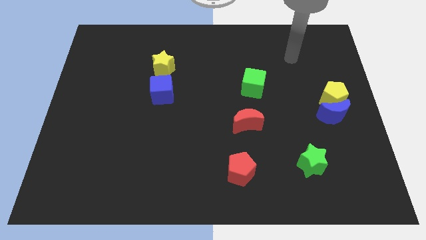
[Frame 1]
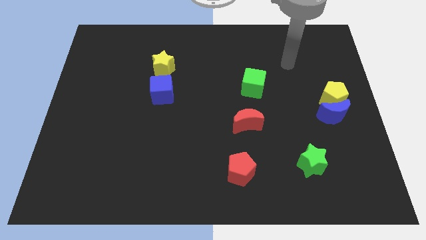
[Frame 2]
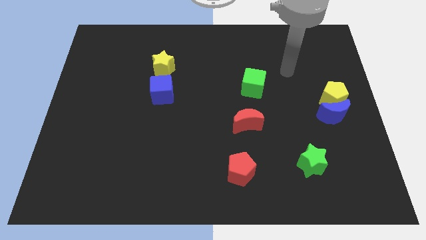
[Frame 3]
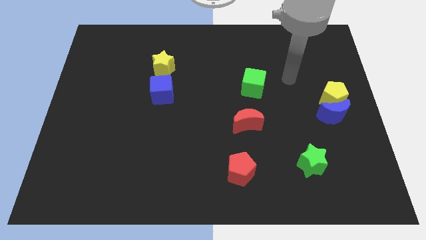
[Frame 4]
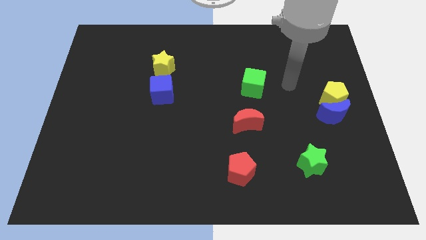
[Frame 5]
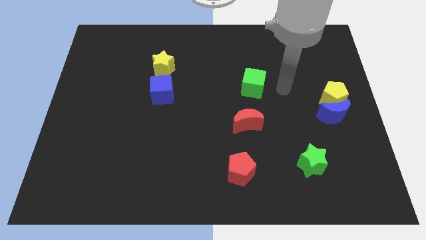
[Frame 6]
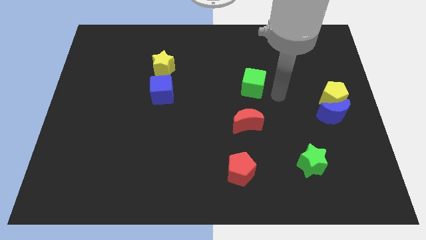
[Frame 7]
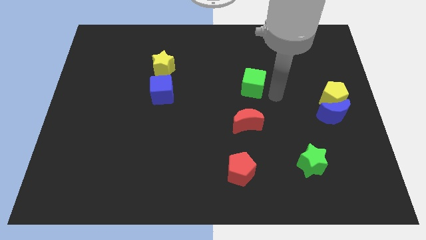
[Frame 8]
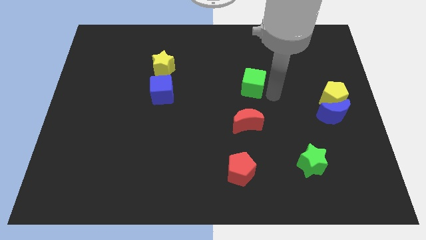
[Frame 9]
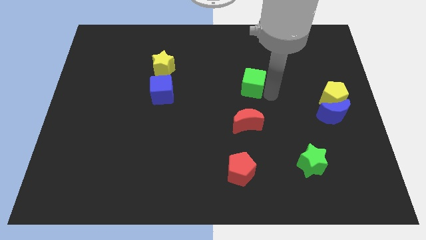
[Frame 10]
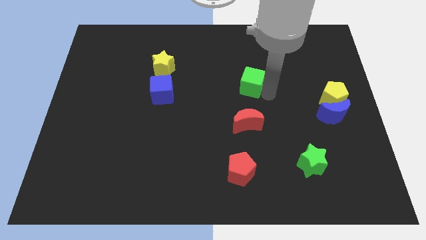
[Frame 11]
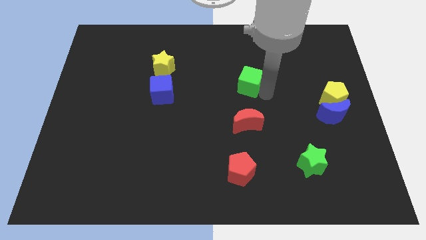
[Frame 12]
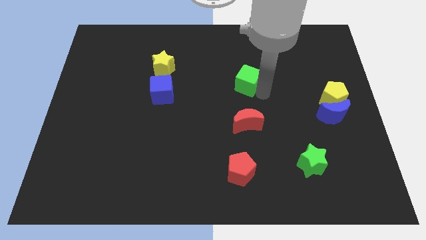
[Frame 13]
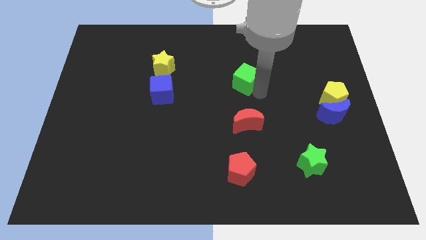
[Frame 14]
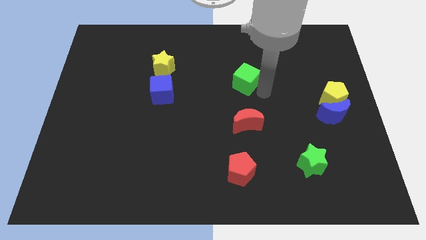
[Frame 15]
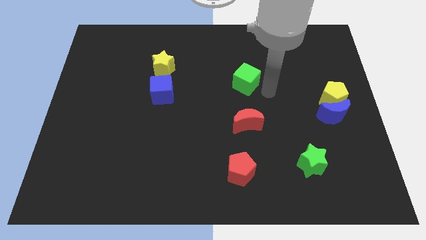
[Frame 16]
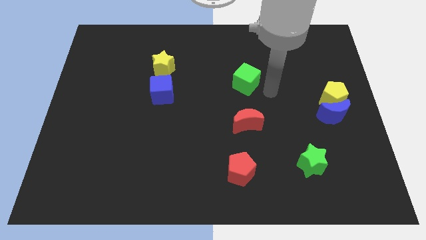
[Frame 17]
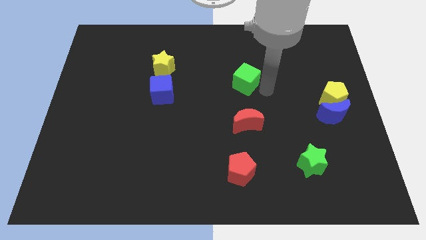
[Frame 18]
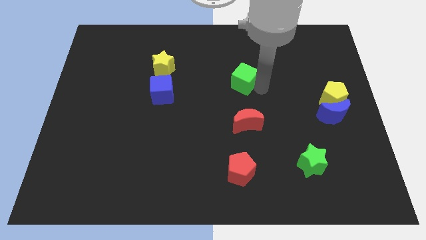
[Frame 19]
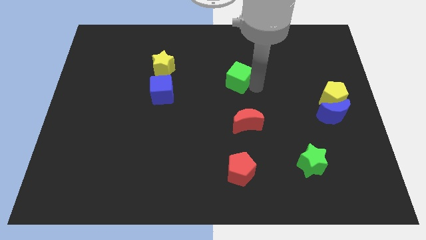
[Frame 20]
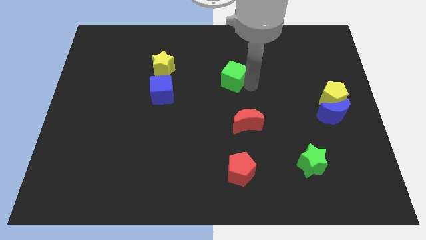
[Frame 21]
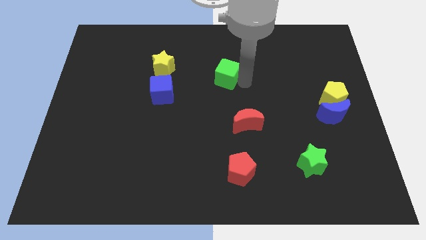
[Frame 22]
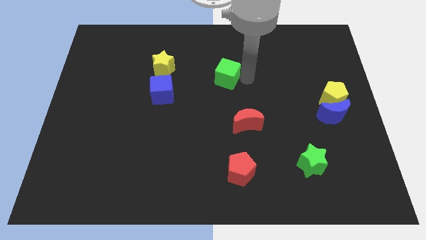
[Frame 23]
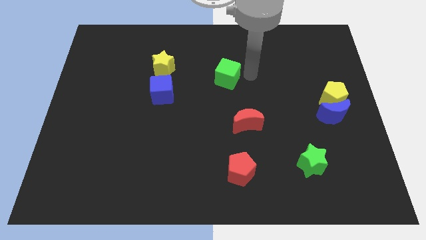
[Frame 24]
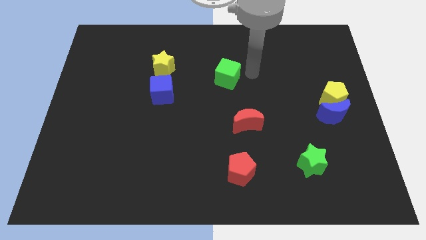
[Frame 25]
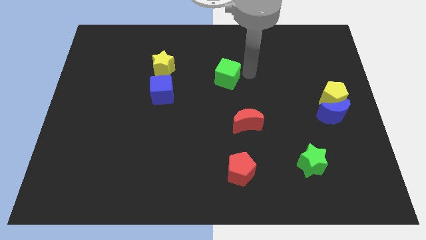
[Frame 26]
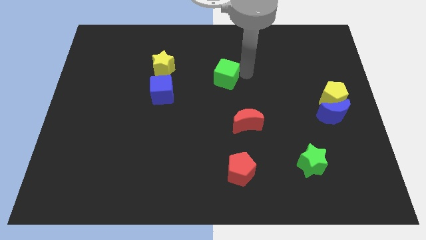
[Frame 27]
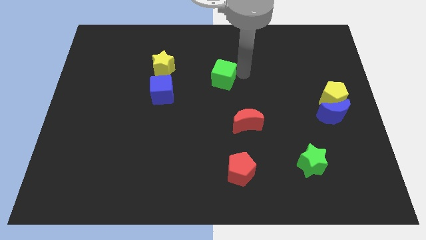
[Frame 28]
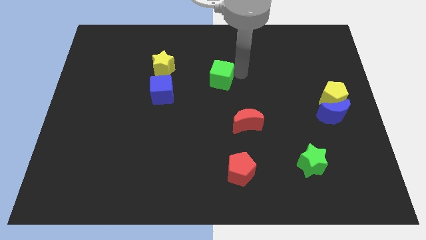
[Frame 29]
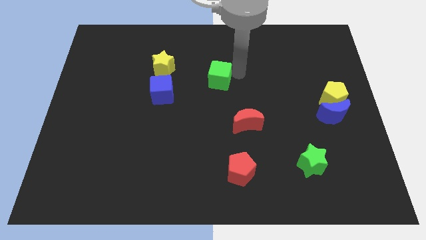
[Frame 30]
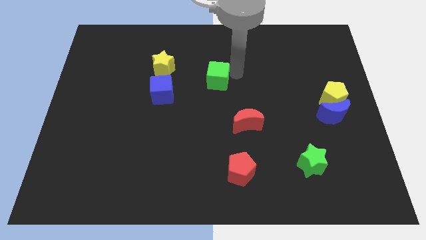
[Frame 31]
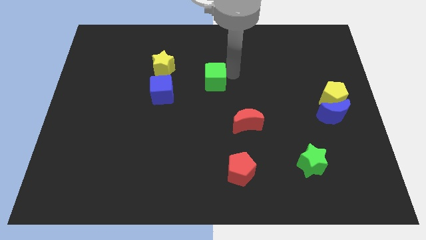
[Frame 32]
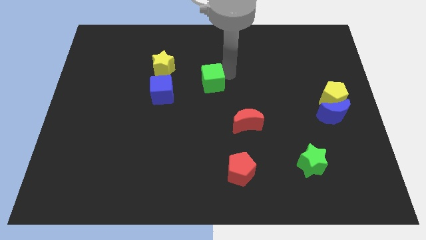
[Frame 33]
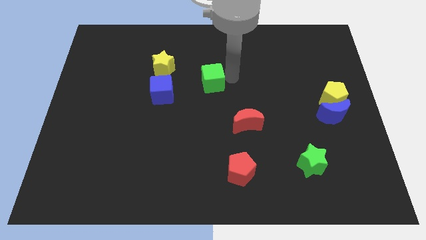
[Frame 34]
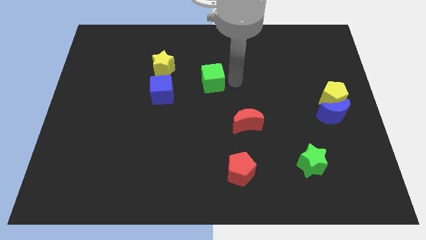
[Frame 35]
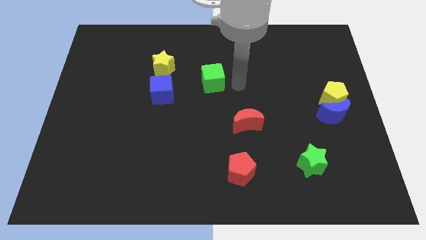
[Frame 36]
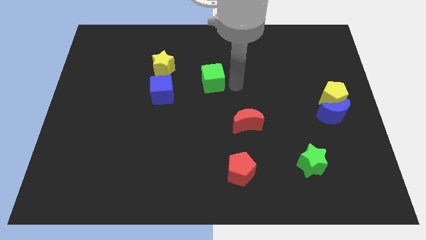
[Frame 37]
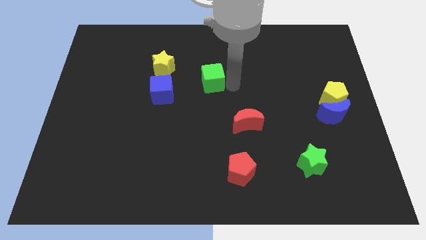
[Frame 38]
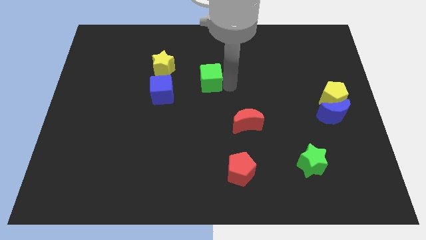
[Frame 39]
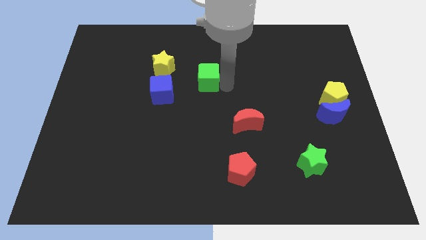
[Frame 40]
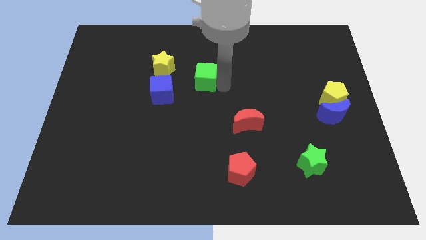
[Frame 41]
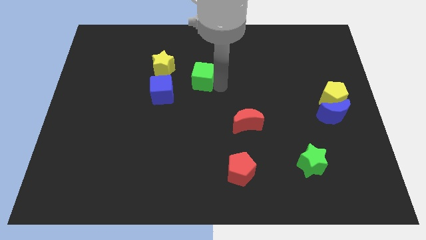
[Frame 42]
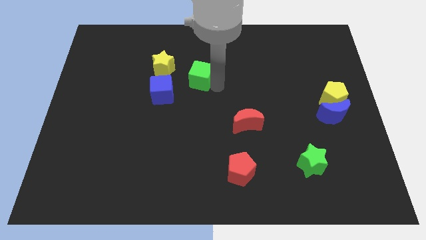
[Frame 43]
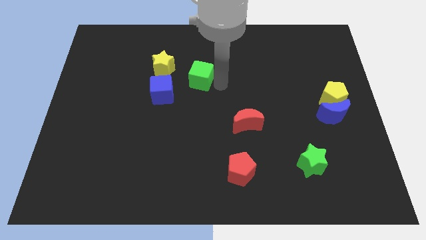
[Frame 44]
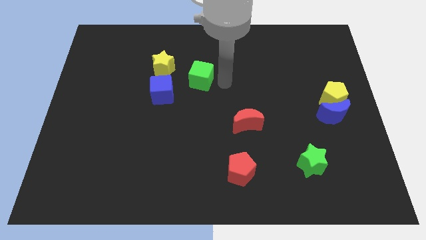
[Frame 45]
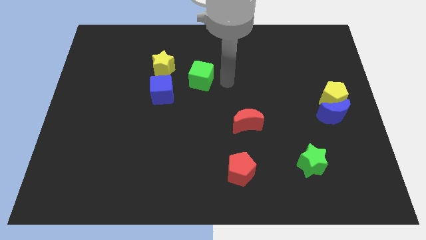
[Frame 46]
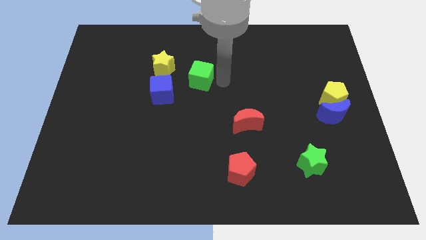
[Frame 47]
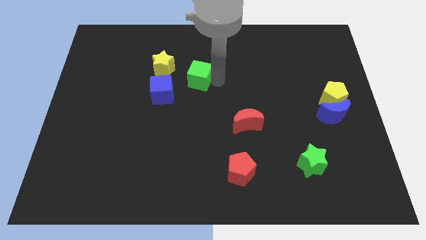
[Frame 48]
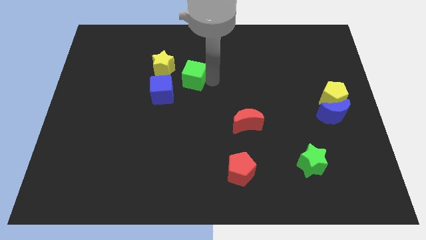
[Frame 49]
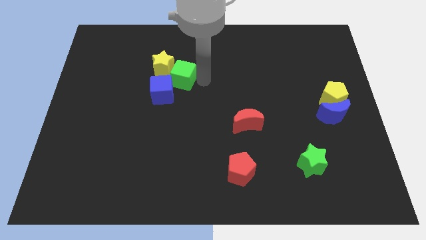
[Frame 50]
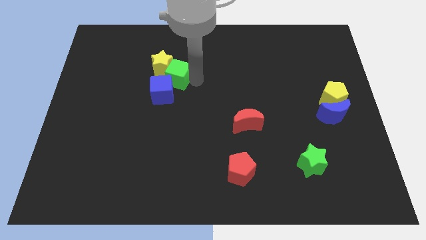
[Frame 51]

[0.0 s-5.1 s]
push the green cube towards the yellow star

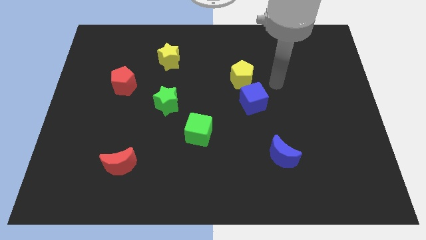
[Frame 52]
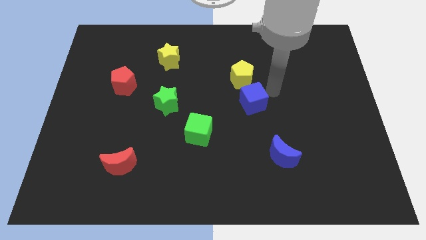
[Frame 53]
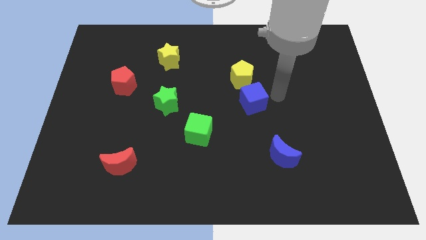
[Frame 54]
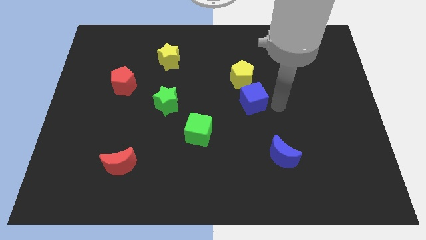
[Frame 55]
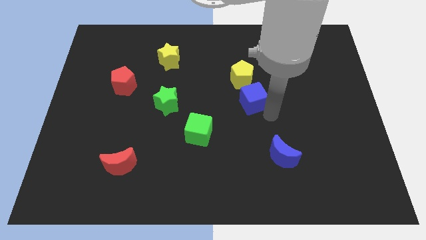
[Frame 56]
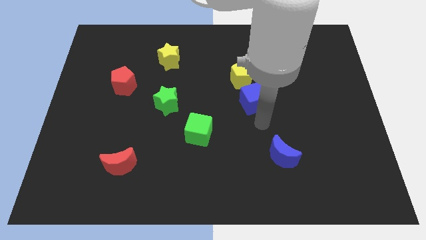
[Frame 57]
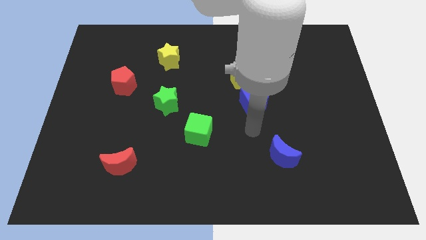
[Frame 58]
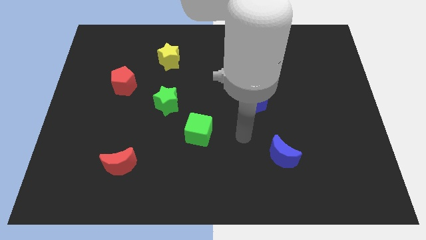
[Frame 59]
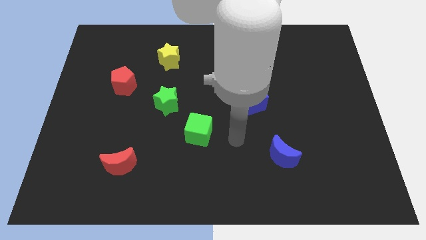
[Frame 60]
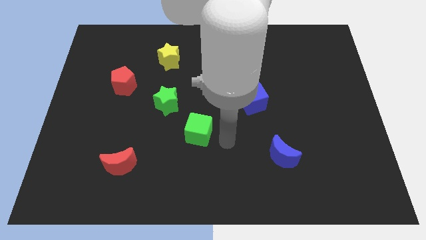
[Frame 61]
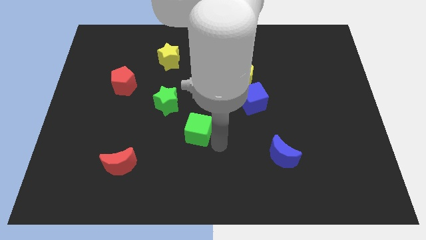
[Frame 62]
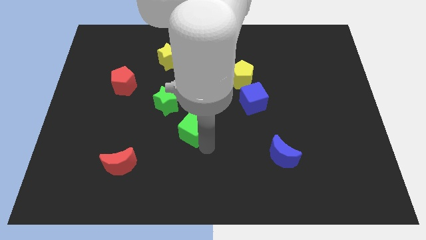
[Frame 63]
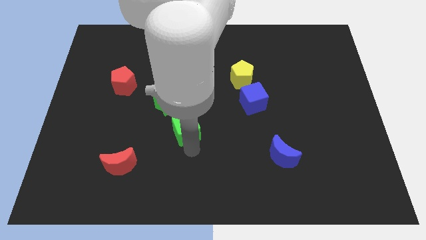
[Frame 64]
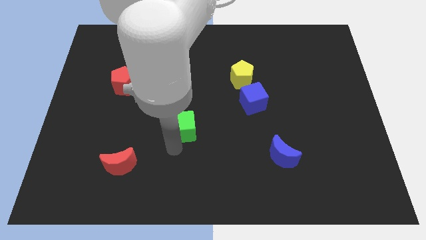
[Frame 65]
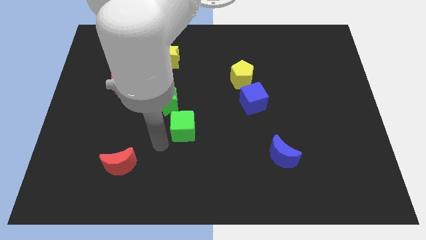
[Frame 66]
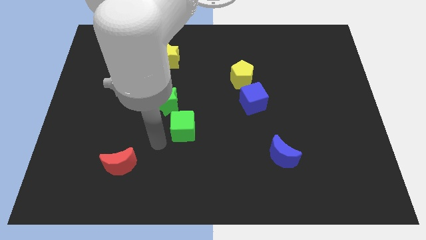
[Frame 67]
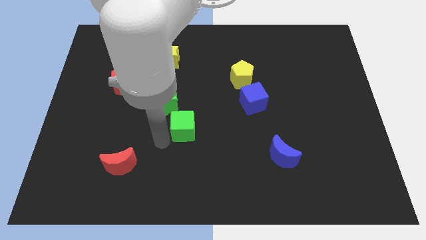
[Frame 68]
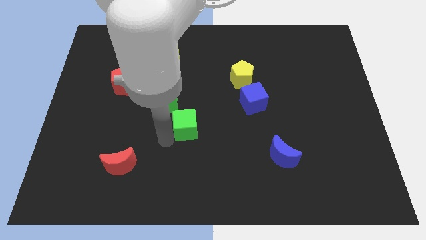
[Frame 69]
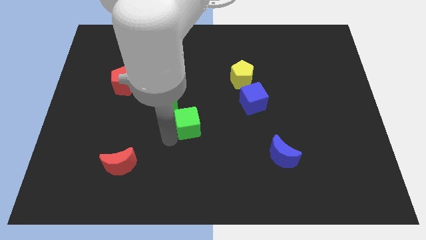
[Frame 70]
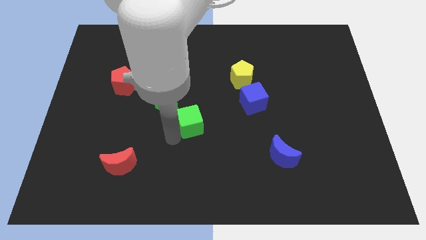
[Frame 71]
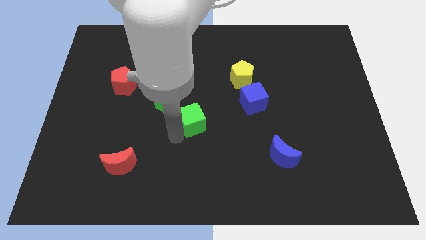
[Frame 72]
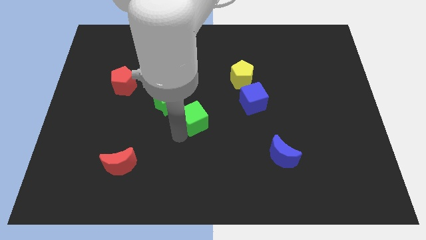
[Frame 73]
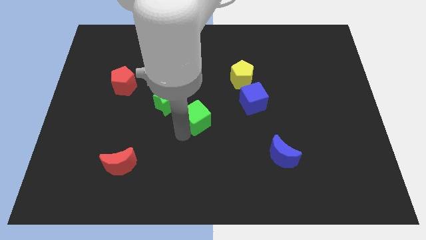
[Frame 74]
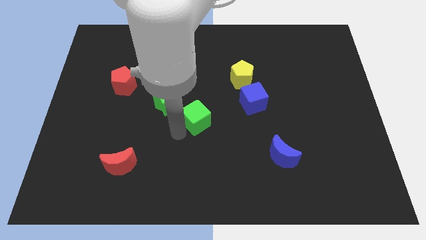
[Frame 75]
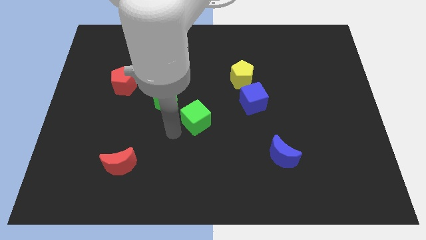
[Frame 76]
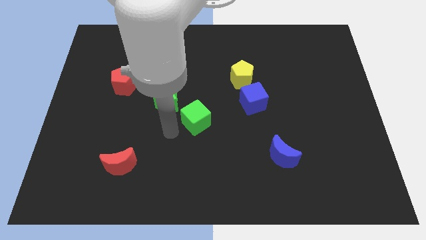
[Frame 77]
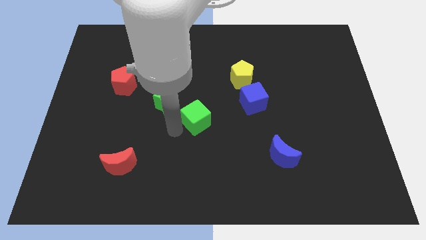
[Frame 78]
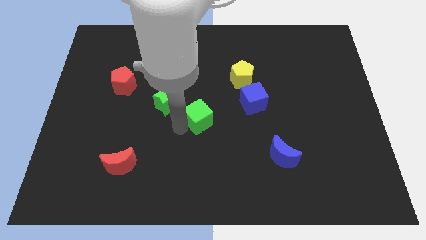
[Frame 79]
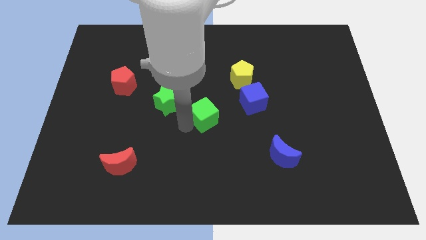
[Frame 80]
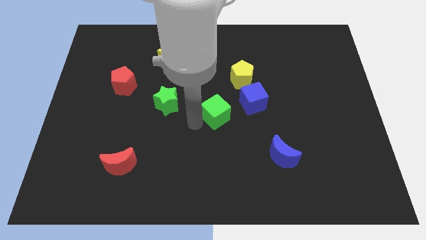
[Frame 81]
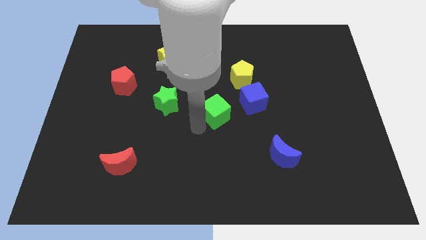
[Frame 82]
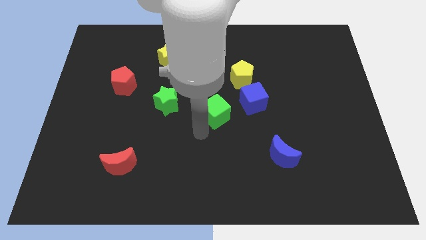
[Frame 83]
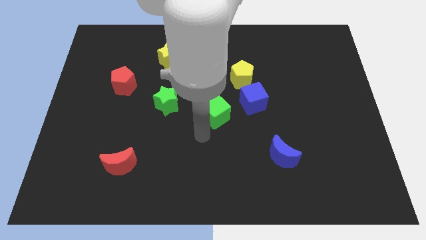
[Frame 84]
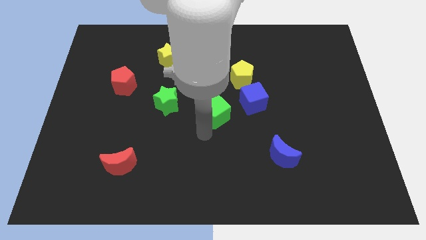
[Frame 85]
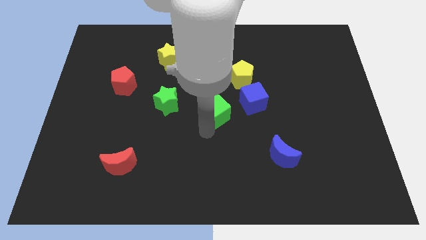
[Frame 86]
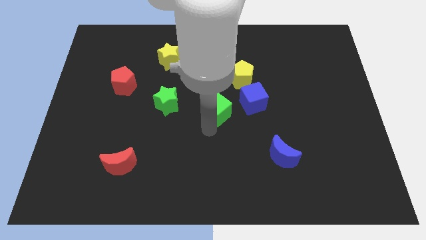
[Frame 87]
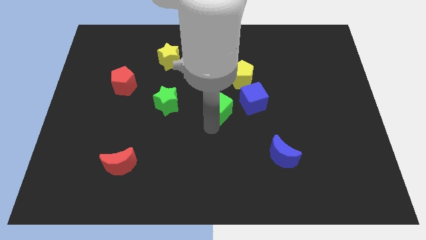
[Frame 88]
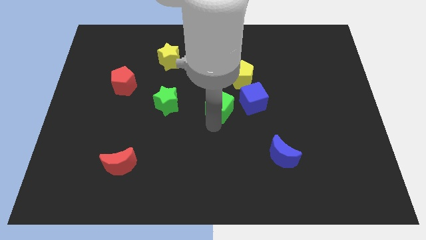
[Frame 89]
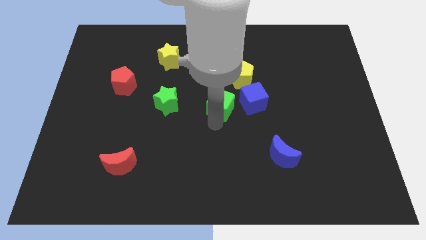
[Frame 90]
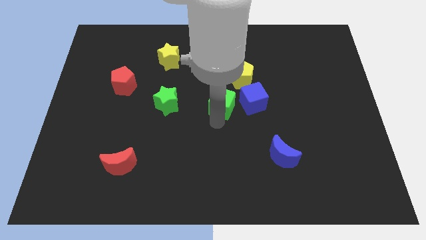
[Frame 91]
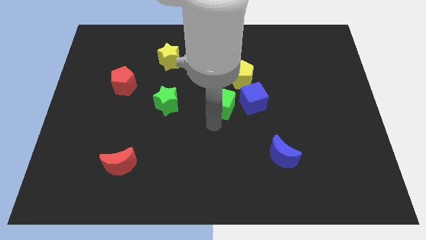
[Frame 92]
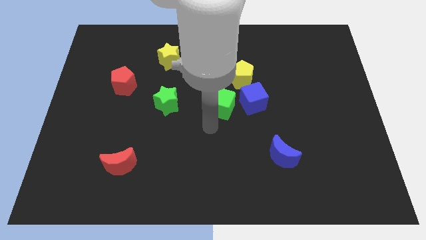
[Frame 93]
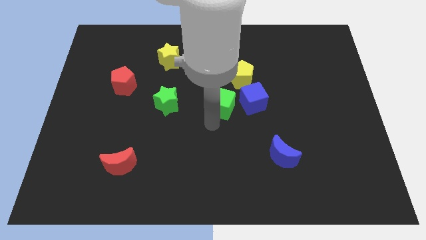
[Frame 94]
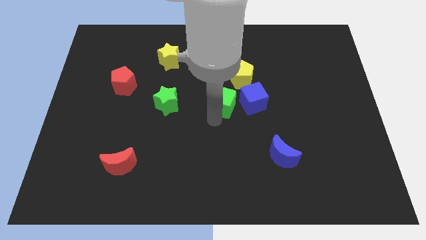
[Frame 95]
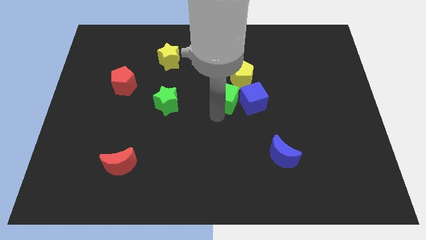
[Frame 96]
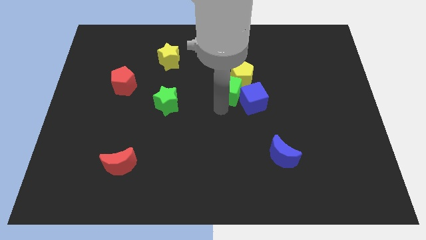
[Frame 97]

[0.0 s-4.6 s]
slide the green cube close to the yellow pentagon
